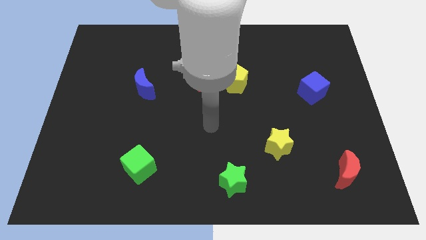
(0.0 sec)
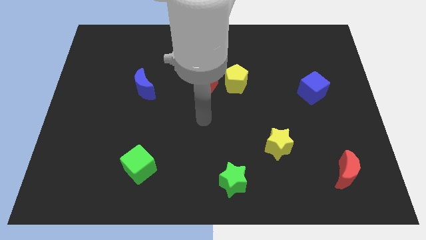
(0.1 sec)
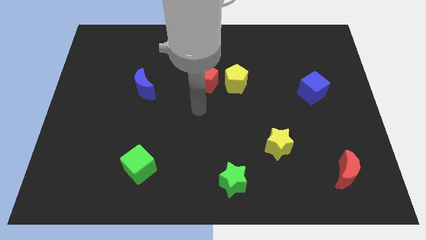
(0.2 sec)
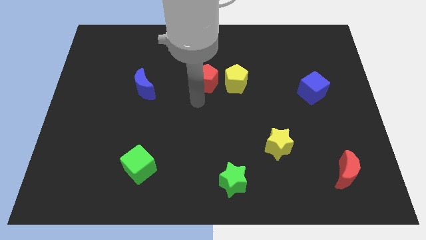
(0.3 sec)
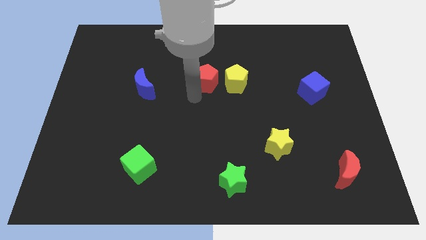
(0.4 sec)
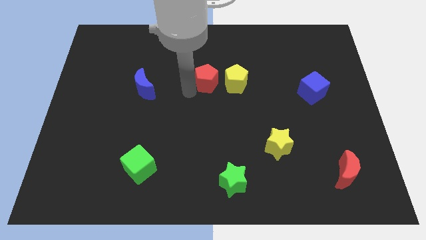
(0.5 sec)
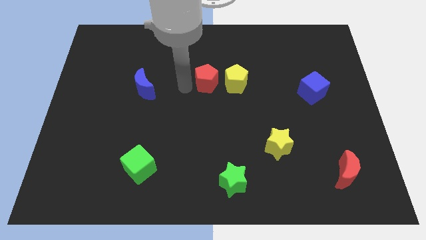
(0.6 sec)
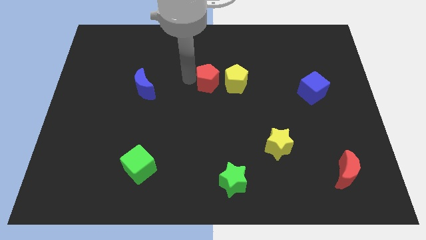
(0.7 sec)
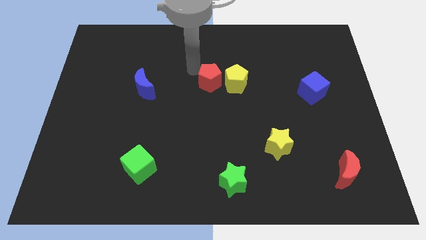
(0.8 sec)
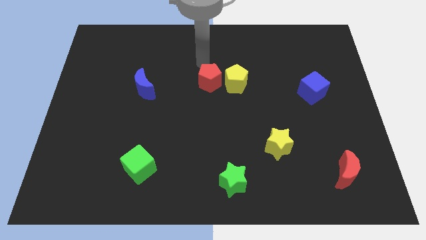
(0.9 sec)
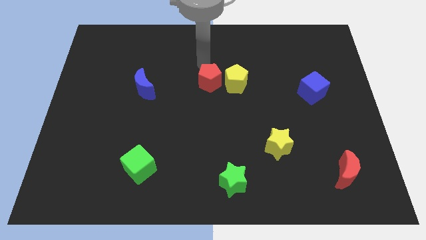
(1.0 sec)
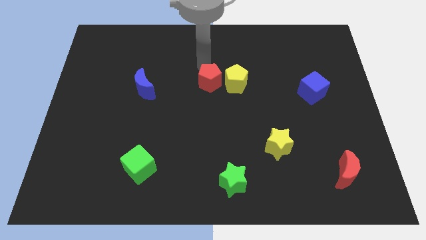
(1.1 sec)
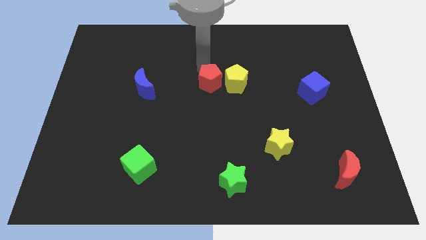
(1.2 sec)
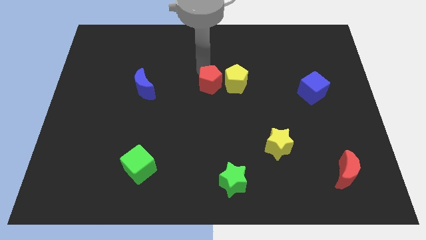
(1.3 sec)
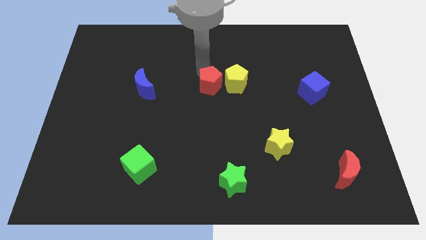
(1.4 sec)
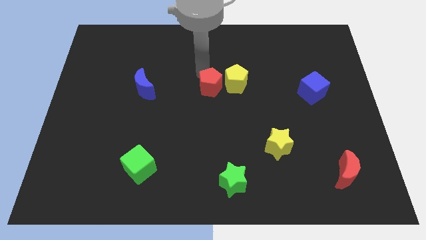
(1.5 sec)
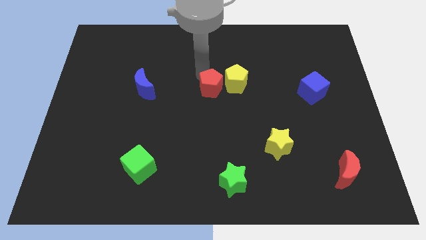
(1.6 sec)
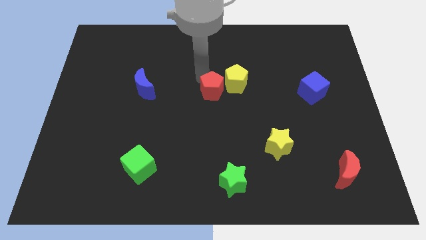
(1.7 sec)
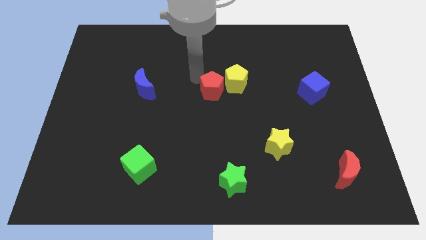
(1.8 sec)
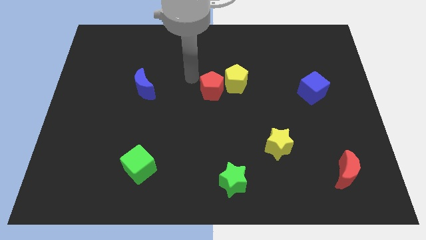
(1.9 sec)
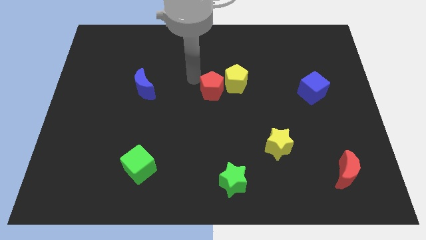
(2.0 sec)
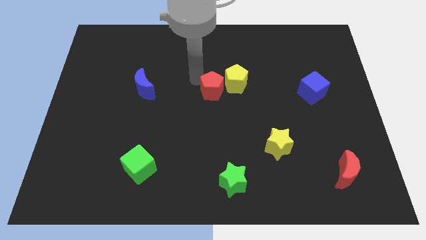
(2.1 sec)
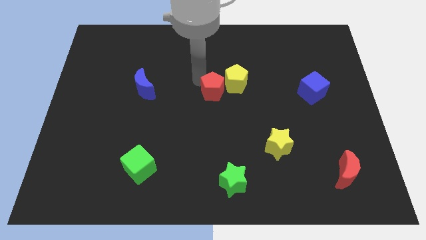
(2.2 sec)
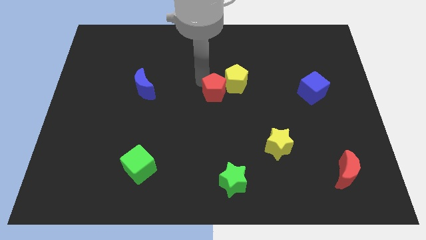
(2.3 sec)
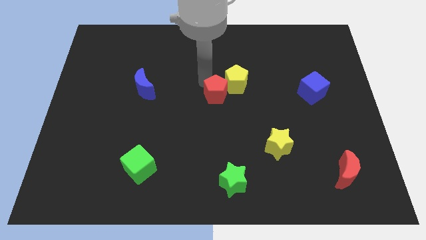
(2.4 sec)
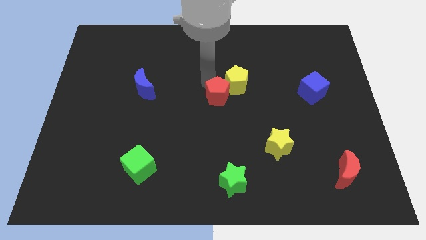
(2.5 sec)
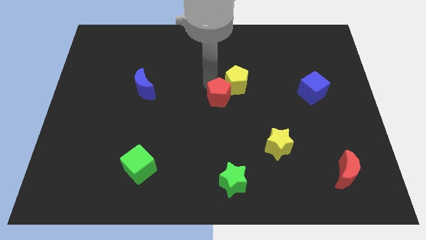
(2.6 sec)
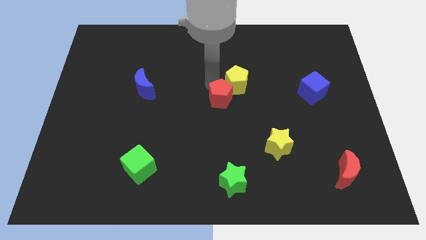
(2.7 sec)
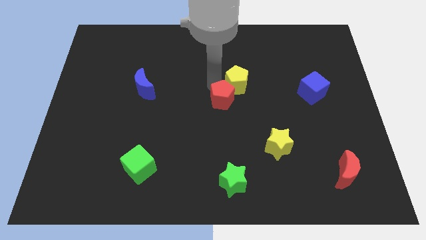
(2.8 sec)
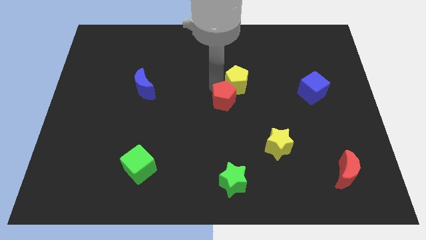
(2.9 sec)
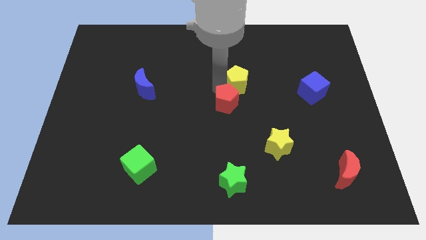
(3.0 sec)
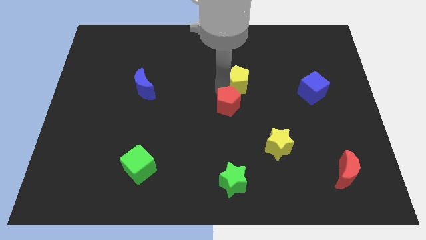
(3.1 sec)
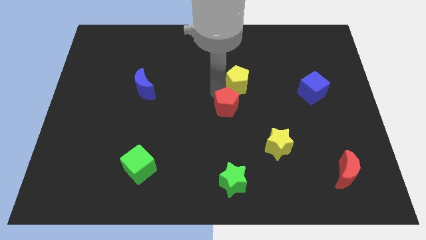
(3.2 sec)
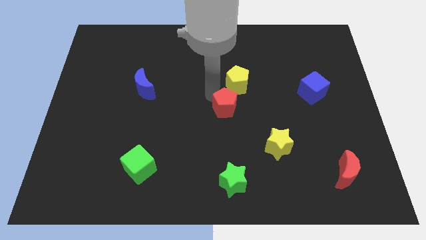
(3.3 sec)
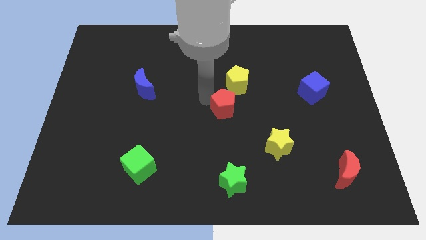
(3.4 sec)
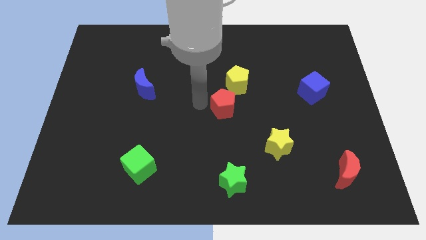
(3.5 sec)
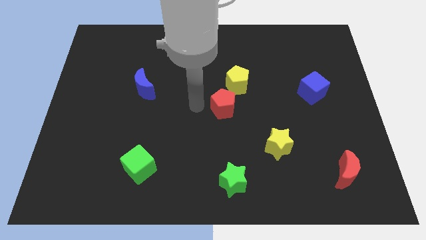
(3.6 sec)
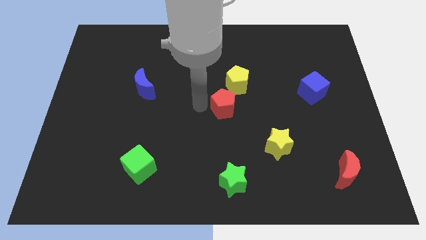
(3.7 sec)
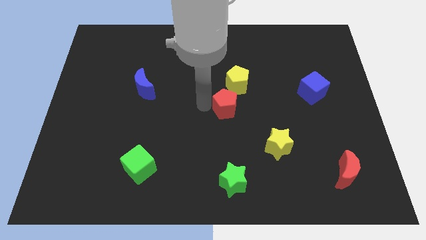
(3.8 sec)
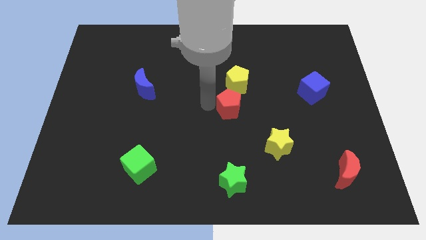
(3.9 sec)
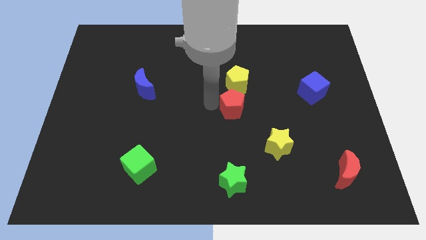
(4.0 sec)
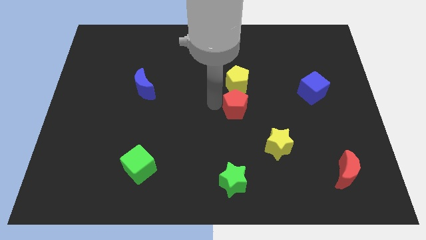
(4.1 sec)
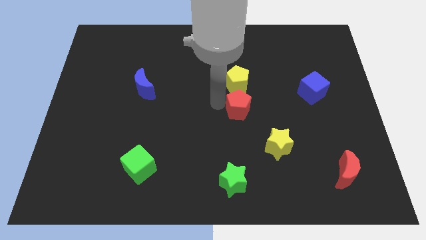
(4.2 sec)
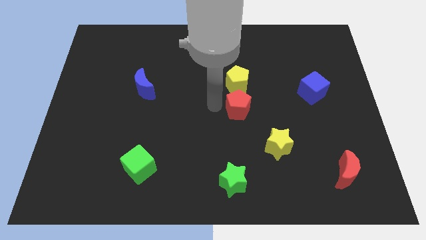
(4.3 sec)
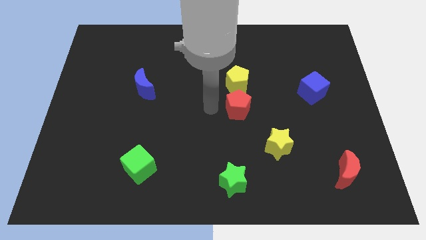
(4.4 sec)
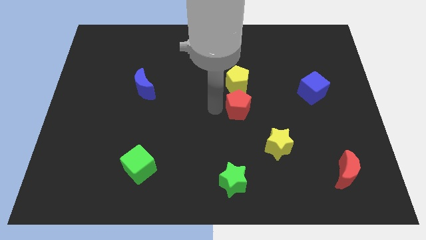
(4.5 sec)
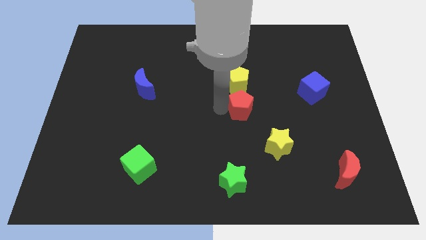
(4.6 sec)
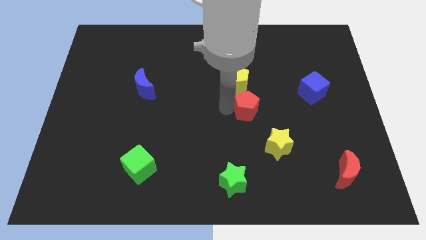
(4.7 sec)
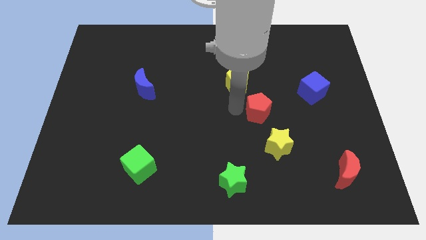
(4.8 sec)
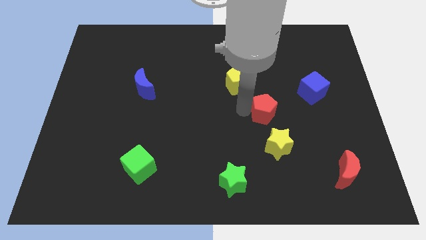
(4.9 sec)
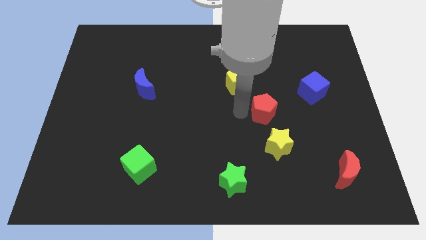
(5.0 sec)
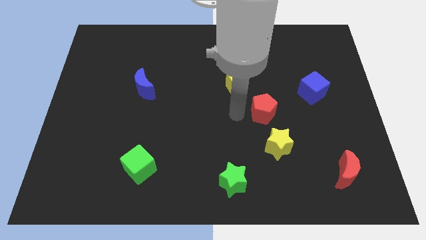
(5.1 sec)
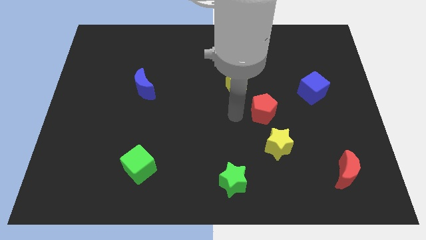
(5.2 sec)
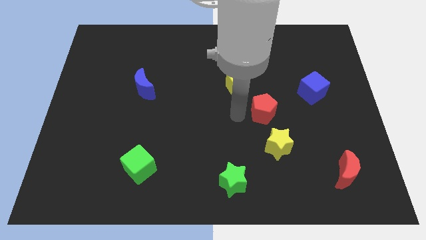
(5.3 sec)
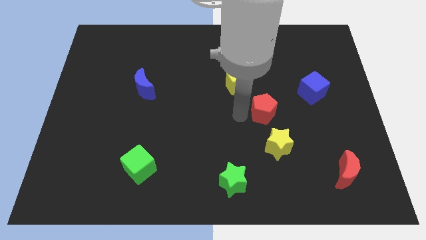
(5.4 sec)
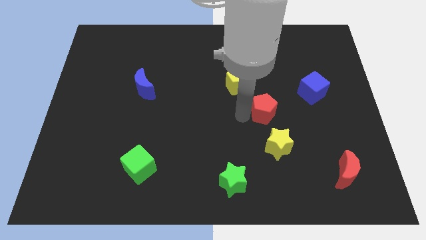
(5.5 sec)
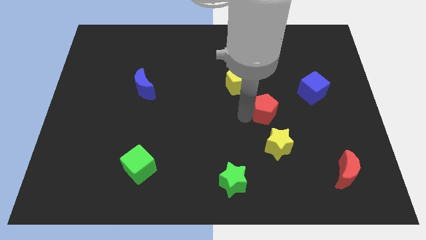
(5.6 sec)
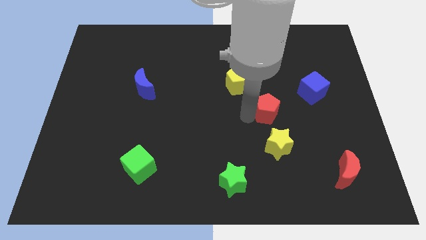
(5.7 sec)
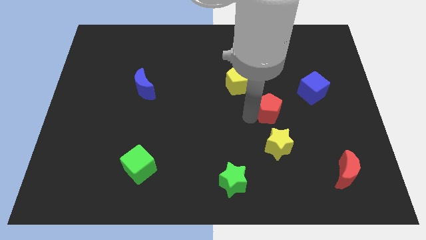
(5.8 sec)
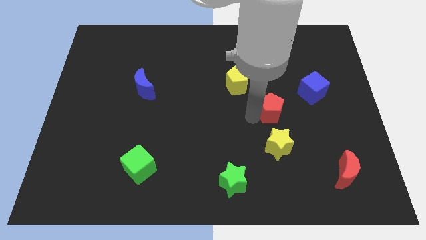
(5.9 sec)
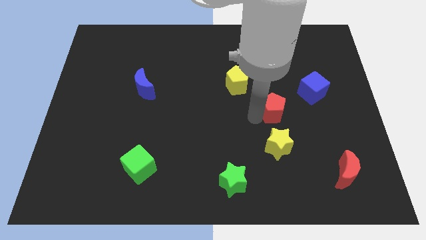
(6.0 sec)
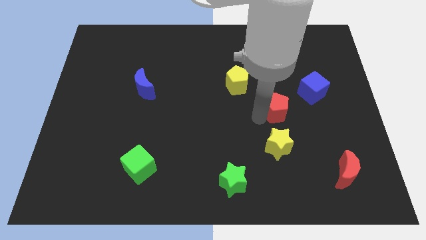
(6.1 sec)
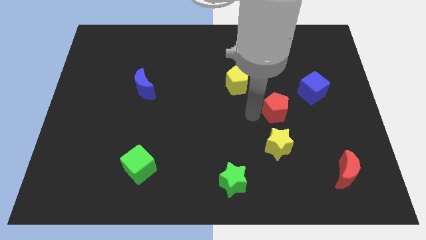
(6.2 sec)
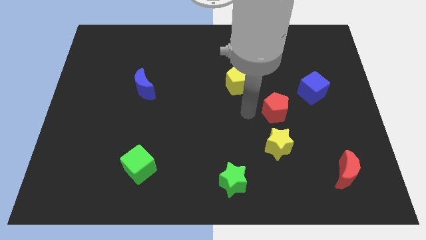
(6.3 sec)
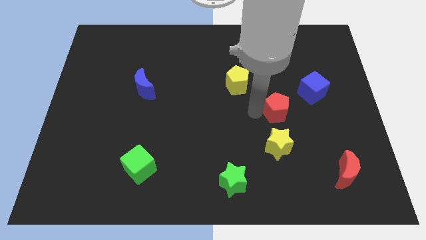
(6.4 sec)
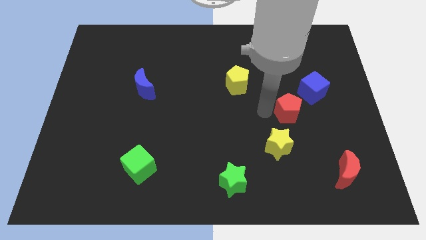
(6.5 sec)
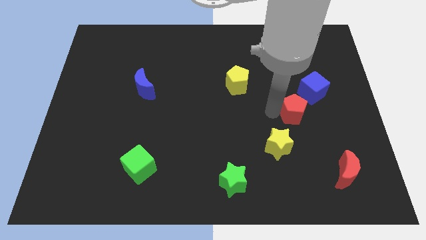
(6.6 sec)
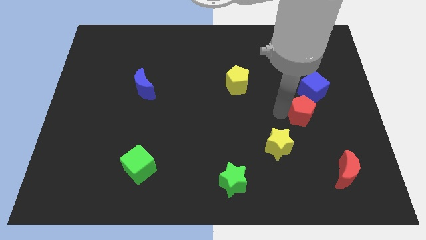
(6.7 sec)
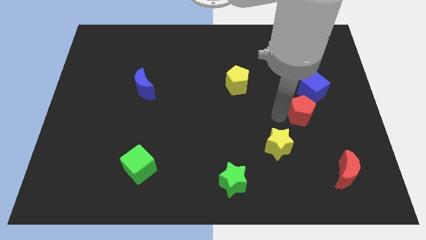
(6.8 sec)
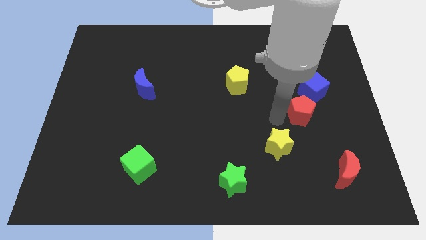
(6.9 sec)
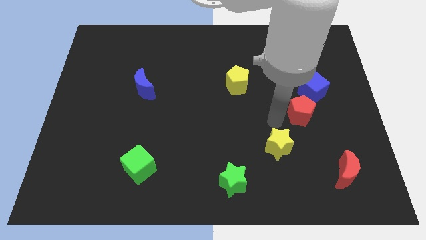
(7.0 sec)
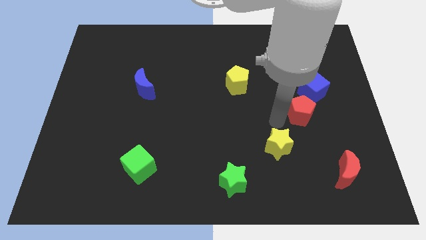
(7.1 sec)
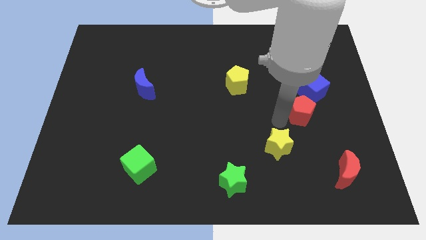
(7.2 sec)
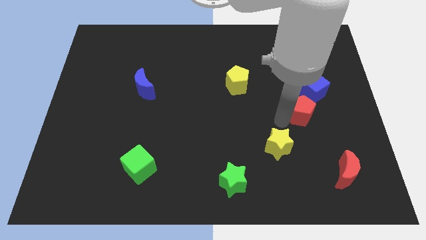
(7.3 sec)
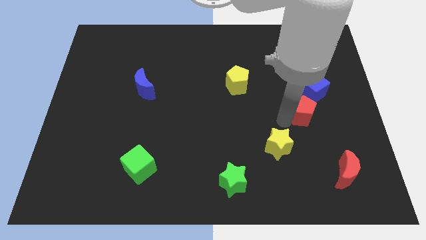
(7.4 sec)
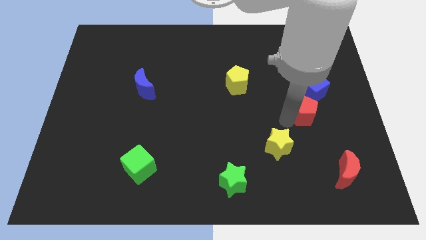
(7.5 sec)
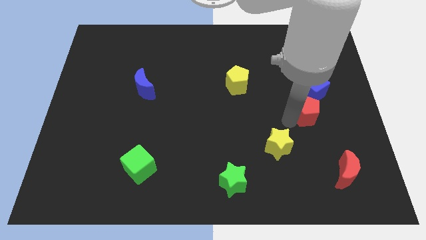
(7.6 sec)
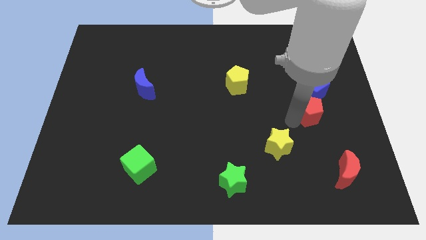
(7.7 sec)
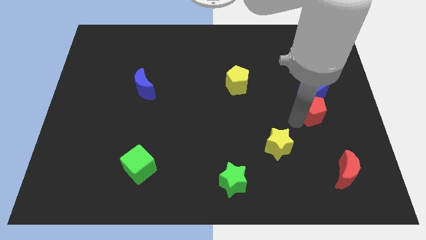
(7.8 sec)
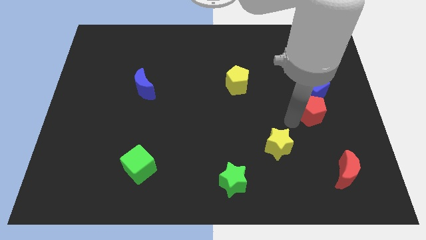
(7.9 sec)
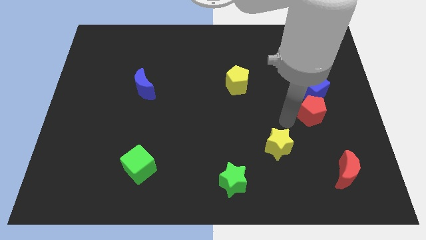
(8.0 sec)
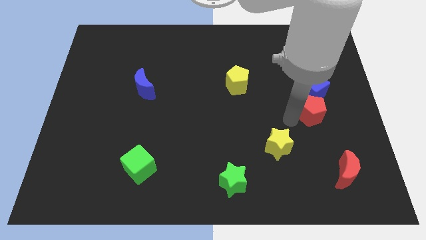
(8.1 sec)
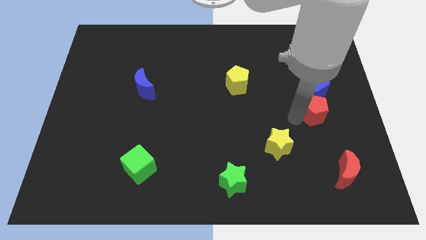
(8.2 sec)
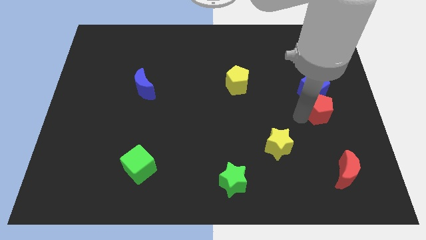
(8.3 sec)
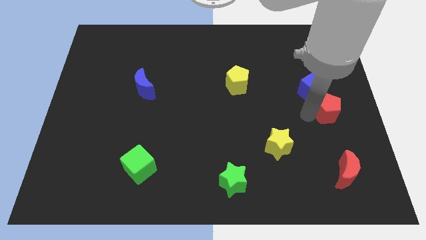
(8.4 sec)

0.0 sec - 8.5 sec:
put the red pentagon to the right side
